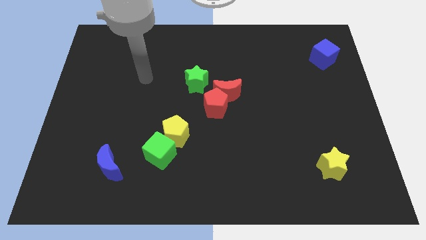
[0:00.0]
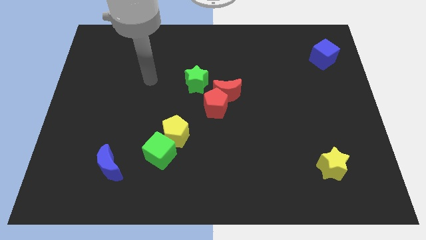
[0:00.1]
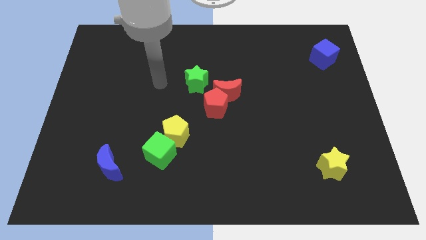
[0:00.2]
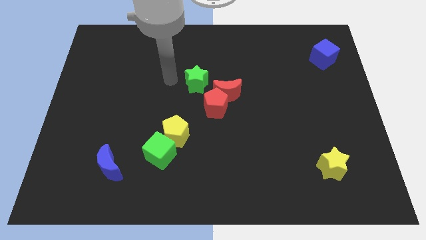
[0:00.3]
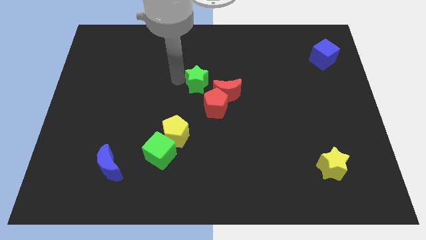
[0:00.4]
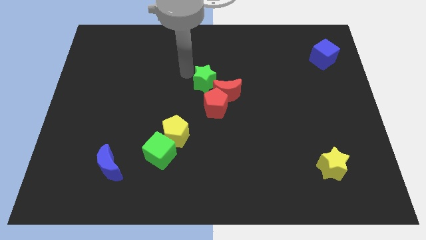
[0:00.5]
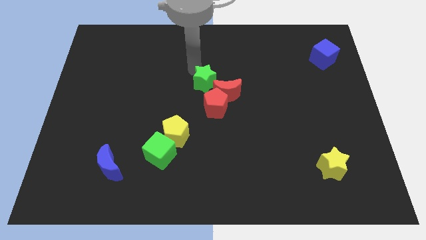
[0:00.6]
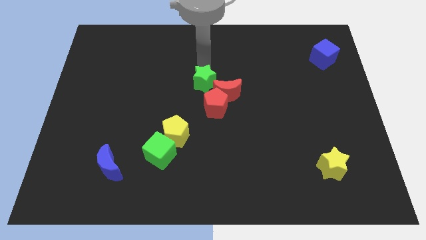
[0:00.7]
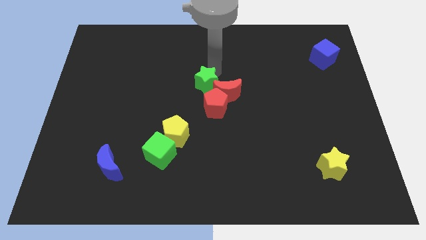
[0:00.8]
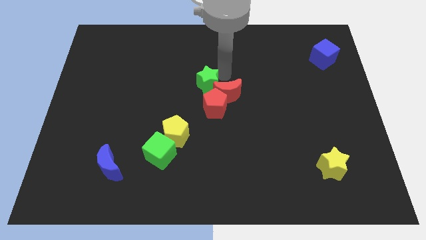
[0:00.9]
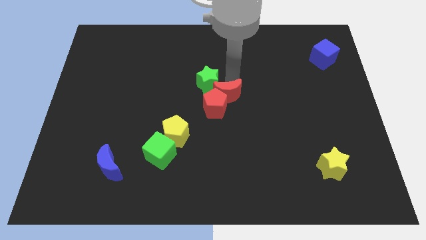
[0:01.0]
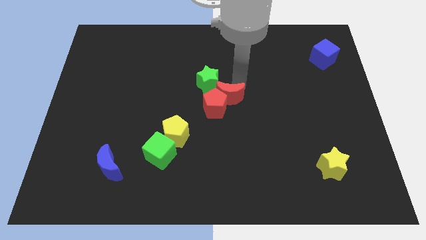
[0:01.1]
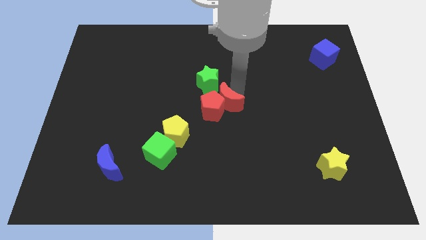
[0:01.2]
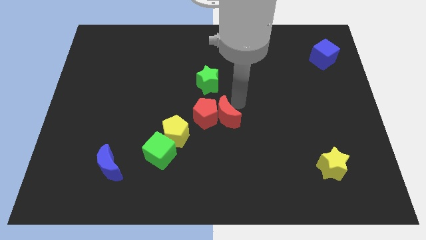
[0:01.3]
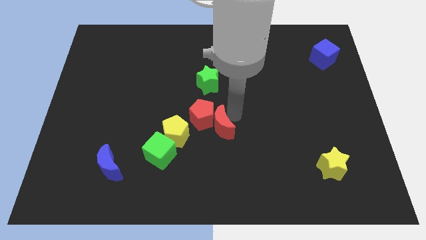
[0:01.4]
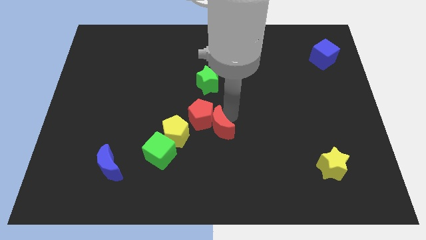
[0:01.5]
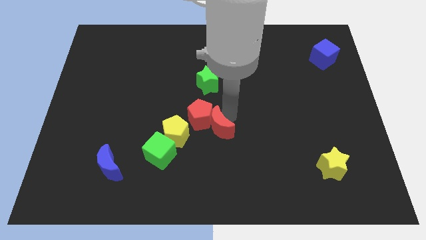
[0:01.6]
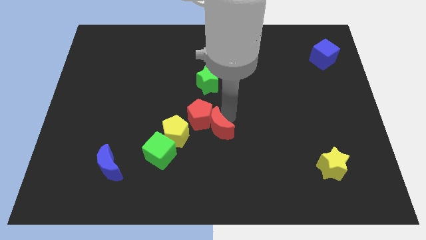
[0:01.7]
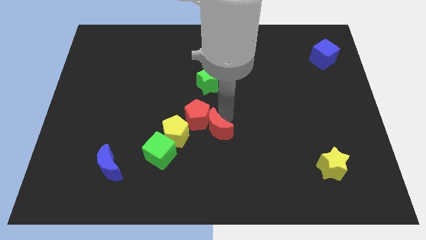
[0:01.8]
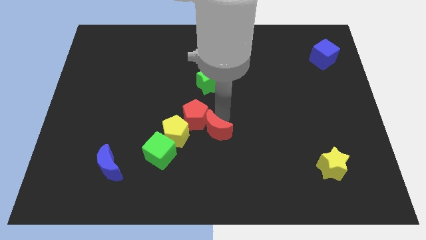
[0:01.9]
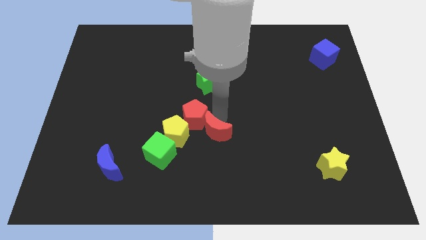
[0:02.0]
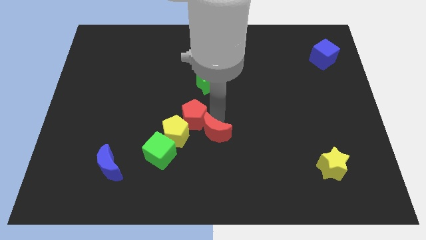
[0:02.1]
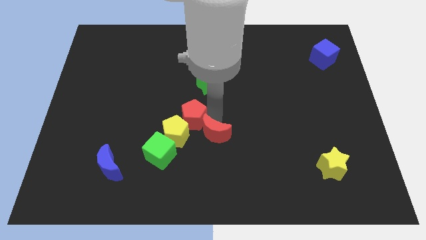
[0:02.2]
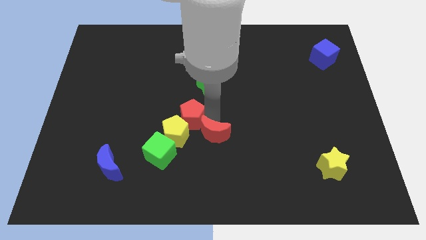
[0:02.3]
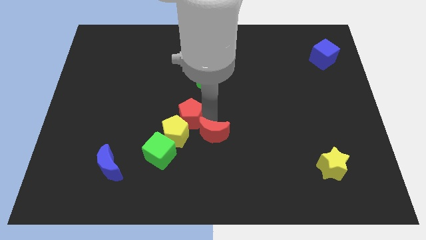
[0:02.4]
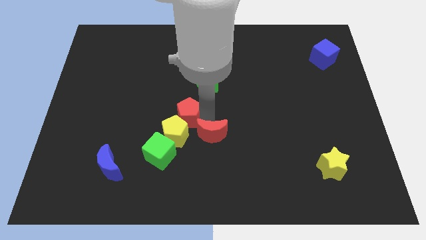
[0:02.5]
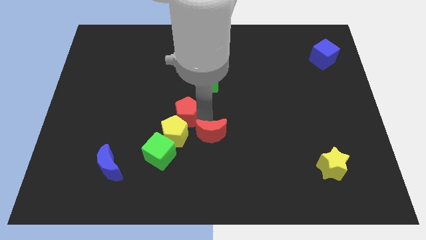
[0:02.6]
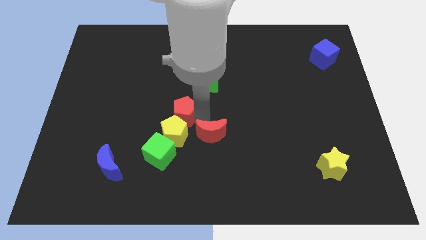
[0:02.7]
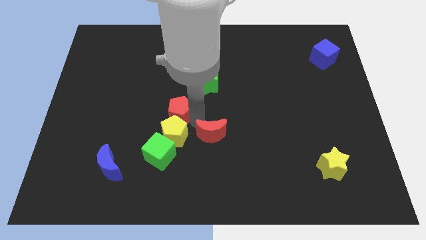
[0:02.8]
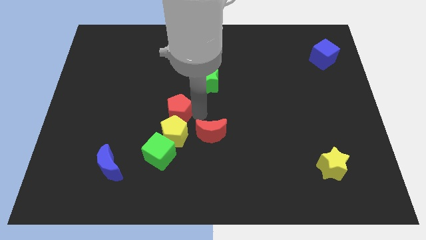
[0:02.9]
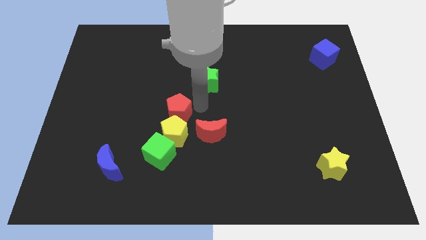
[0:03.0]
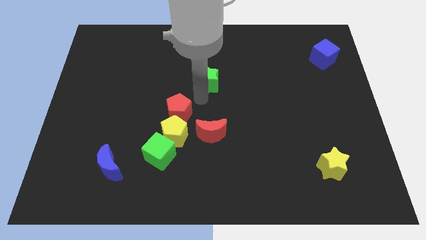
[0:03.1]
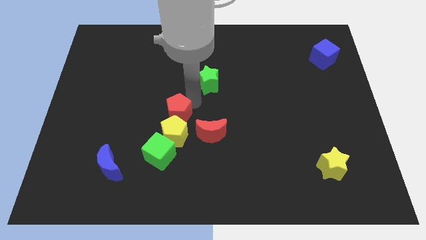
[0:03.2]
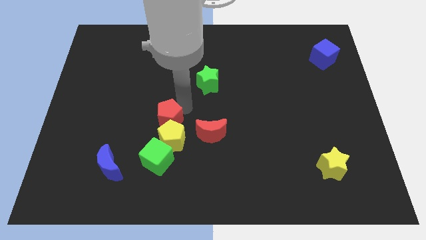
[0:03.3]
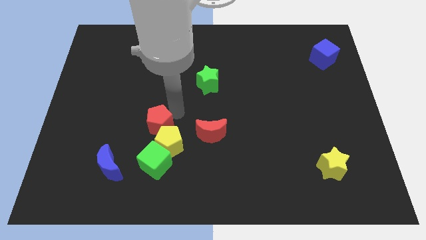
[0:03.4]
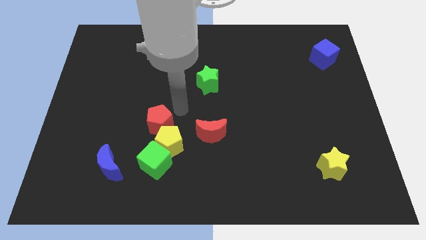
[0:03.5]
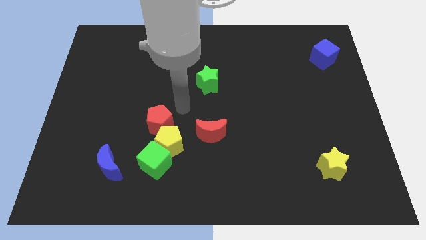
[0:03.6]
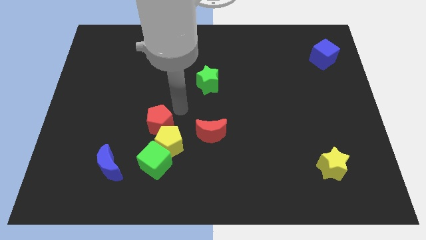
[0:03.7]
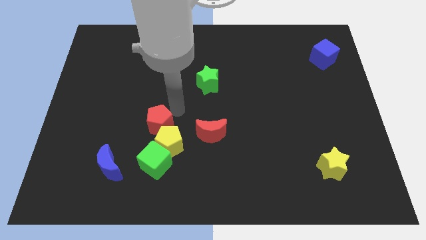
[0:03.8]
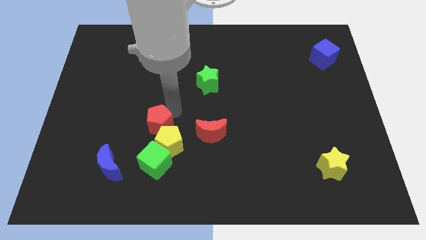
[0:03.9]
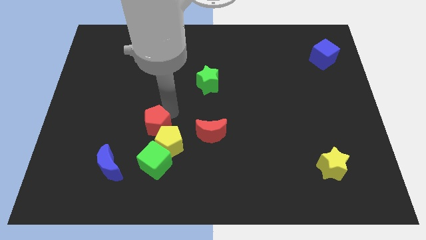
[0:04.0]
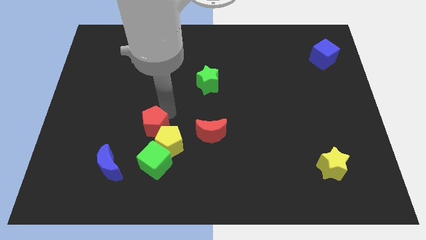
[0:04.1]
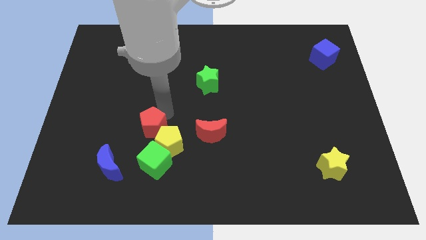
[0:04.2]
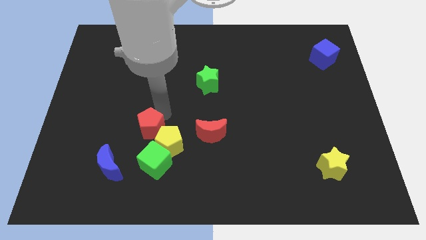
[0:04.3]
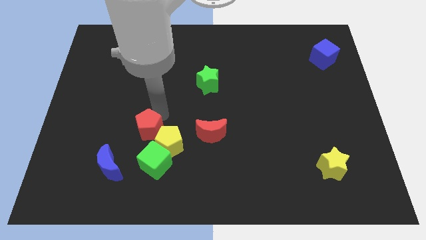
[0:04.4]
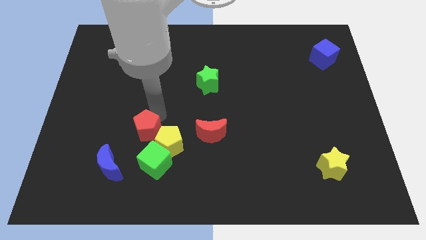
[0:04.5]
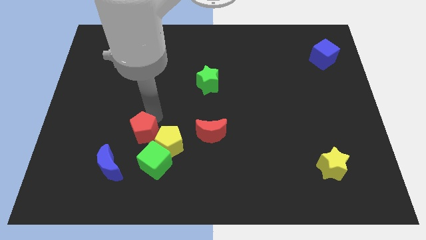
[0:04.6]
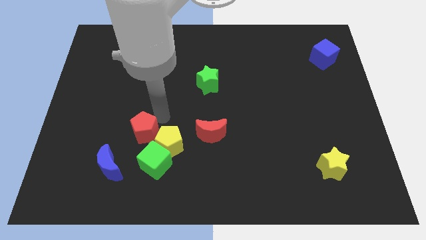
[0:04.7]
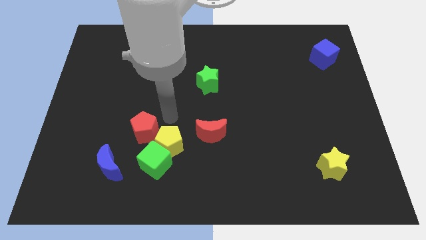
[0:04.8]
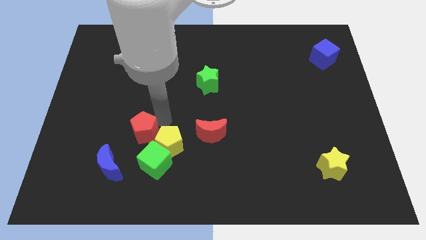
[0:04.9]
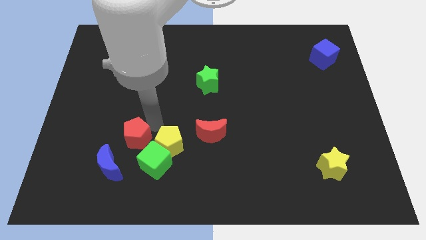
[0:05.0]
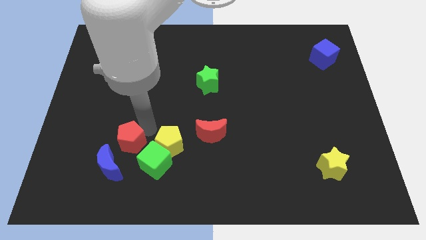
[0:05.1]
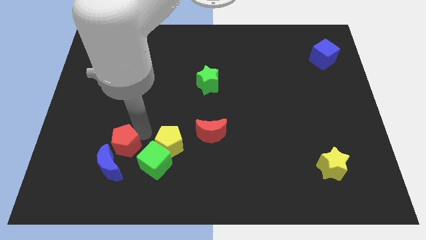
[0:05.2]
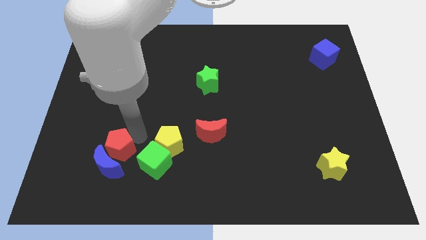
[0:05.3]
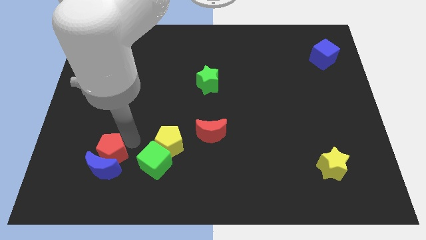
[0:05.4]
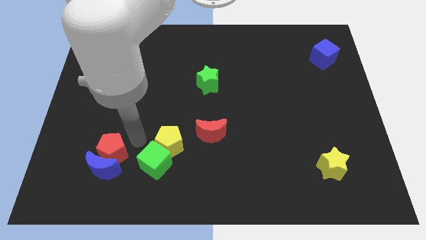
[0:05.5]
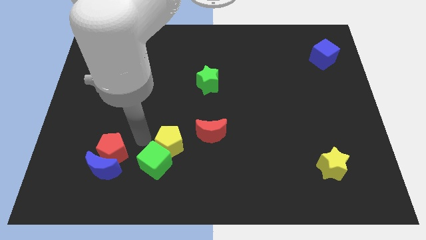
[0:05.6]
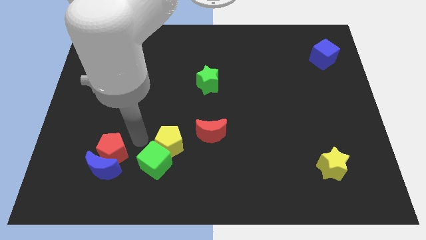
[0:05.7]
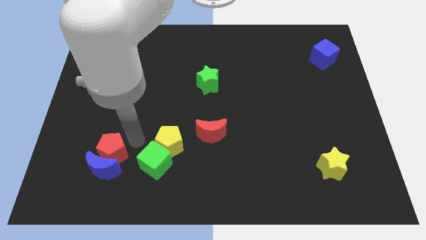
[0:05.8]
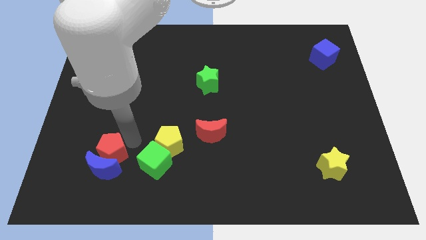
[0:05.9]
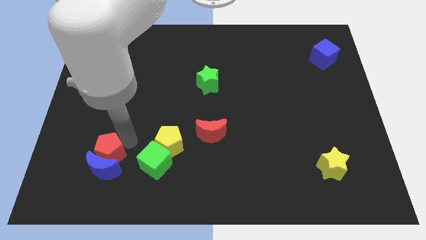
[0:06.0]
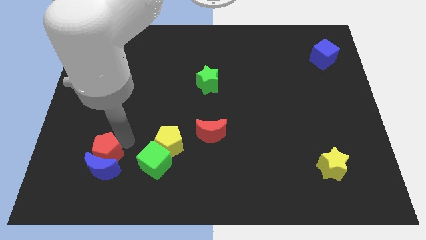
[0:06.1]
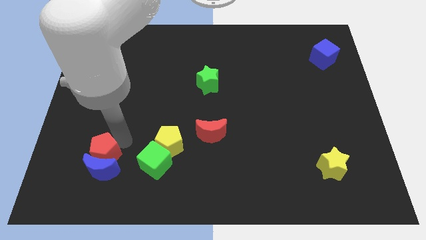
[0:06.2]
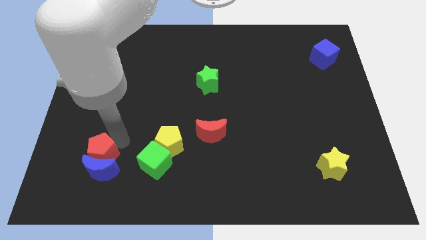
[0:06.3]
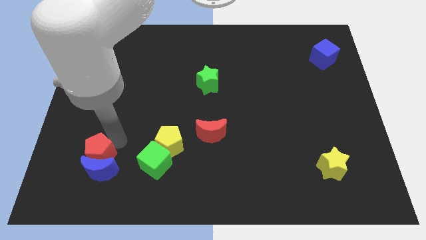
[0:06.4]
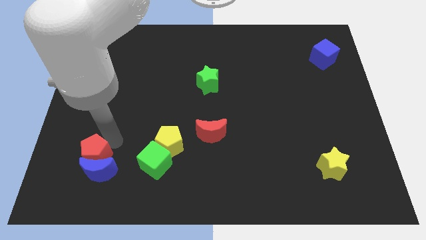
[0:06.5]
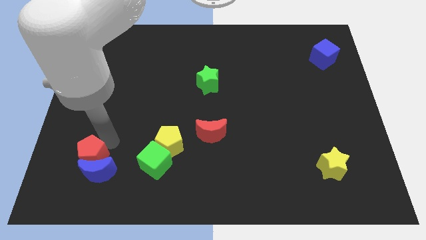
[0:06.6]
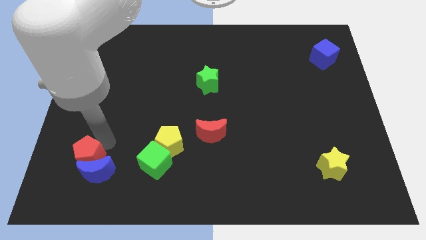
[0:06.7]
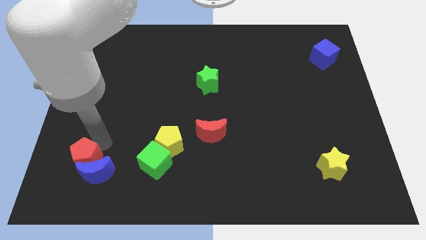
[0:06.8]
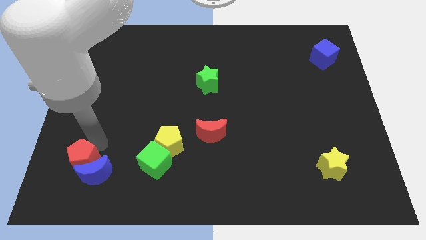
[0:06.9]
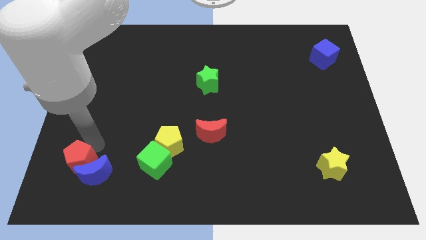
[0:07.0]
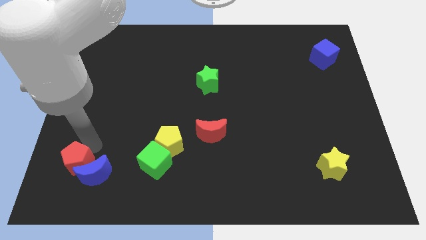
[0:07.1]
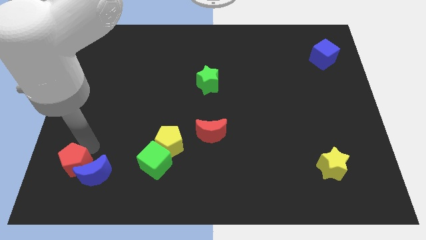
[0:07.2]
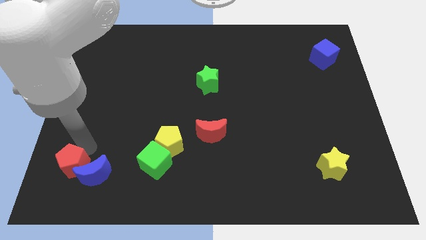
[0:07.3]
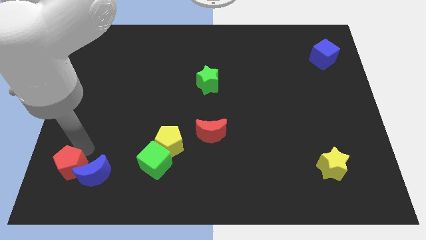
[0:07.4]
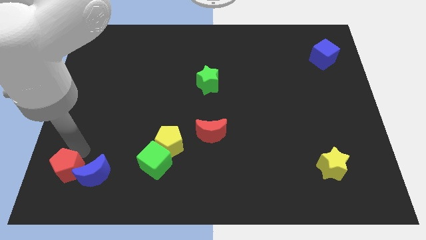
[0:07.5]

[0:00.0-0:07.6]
put the red pentagon to the bottom left
